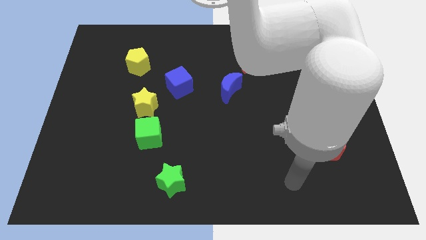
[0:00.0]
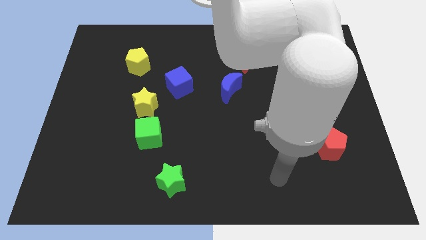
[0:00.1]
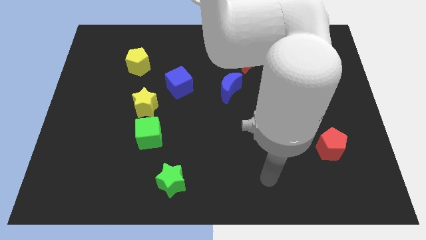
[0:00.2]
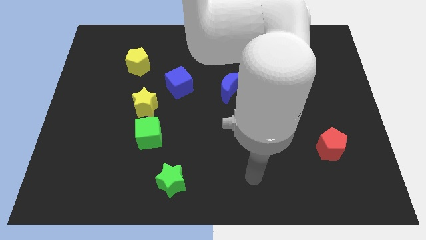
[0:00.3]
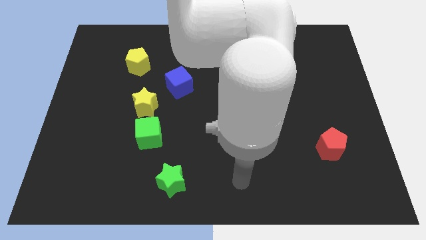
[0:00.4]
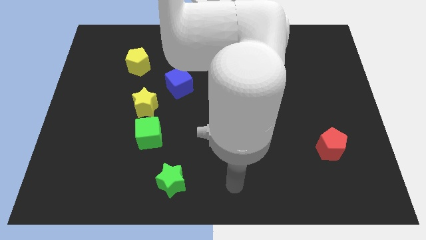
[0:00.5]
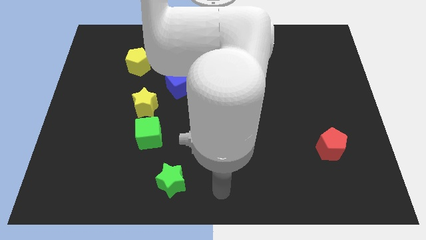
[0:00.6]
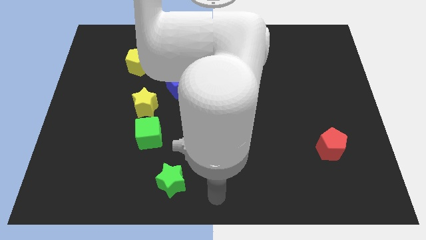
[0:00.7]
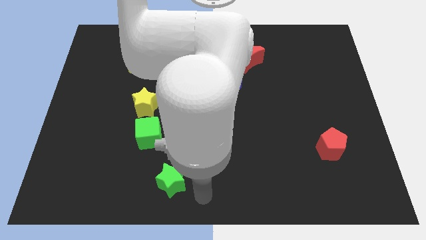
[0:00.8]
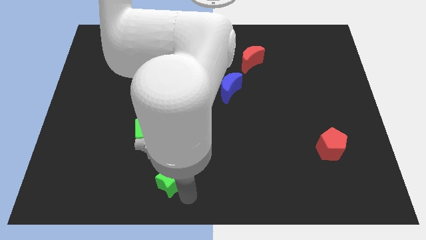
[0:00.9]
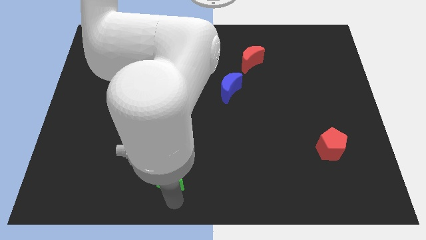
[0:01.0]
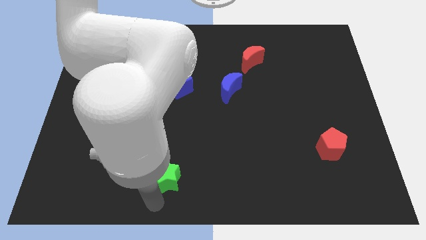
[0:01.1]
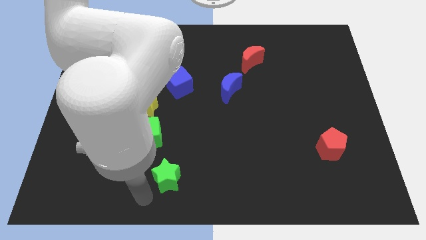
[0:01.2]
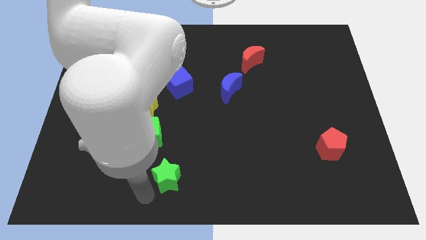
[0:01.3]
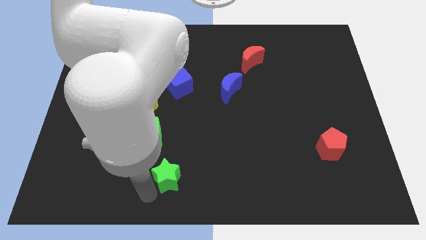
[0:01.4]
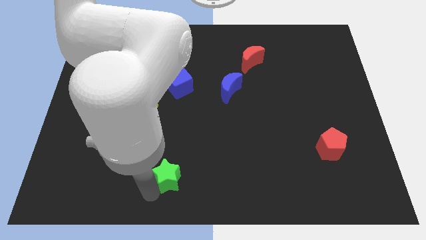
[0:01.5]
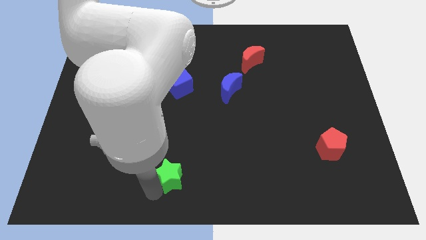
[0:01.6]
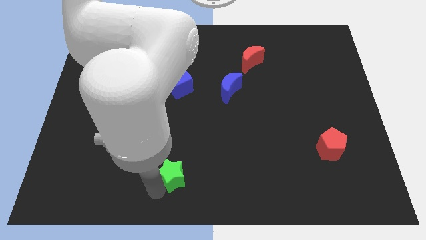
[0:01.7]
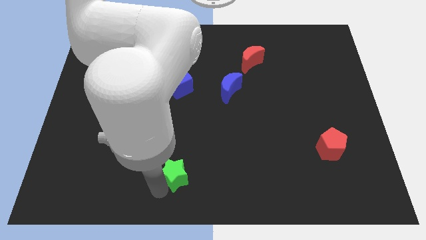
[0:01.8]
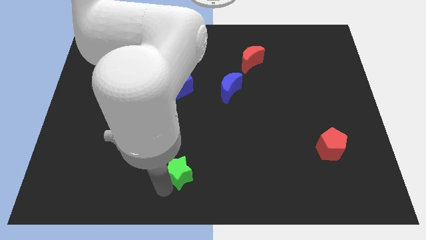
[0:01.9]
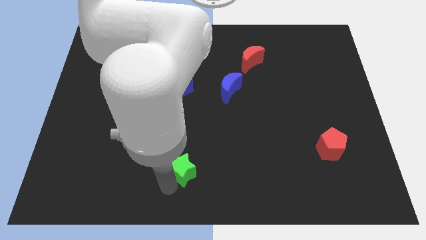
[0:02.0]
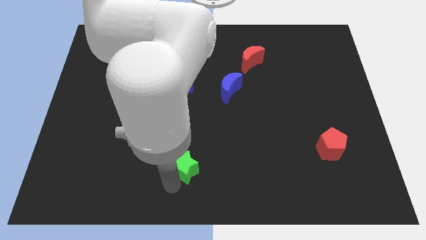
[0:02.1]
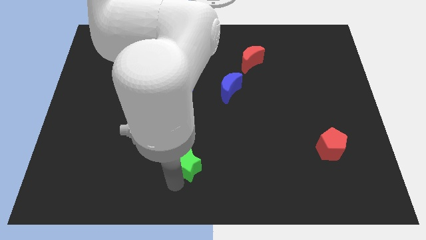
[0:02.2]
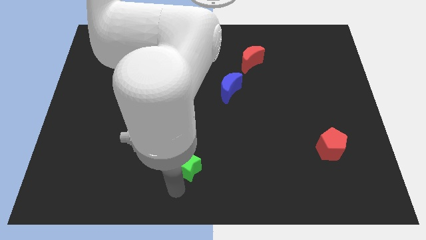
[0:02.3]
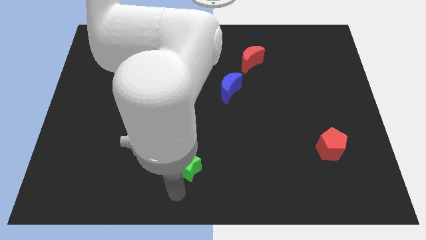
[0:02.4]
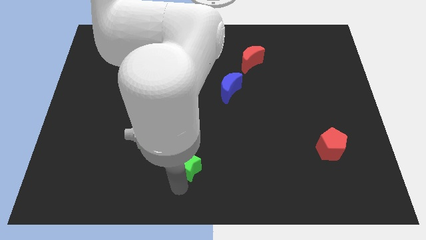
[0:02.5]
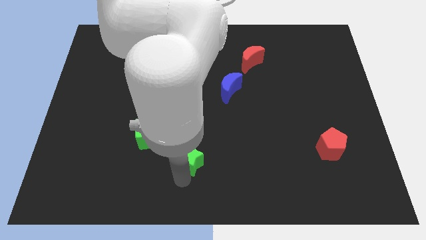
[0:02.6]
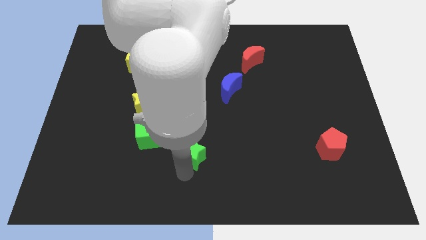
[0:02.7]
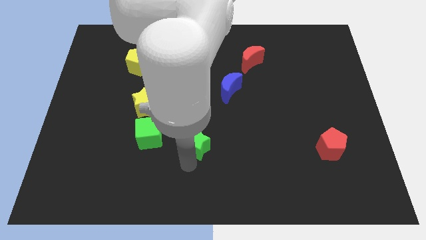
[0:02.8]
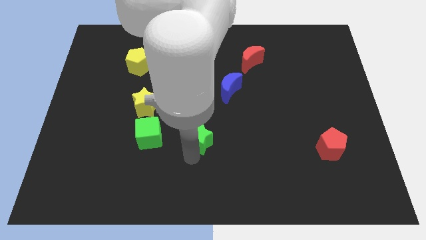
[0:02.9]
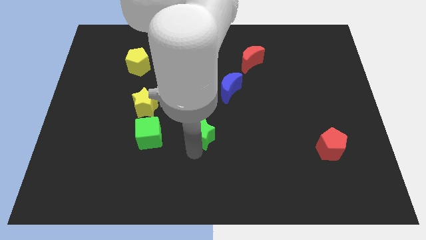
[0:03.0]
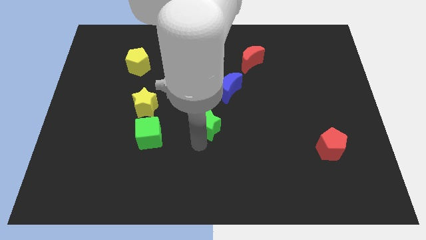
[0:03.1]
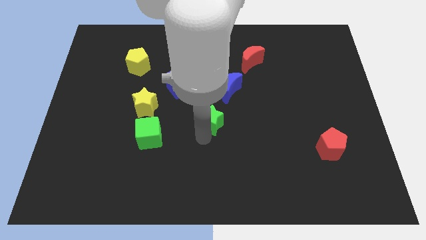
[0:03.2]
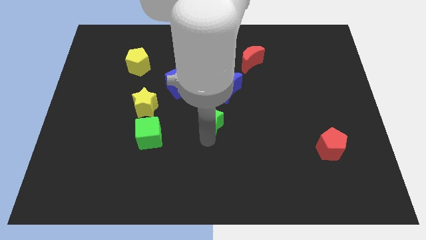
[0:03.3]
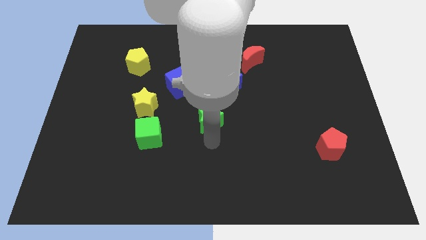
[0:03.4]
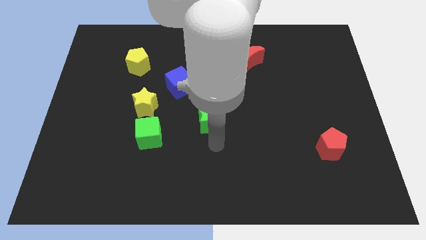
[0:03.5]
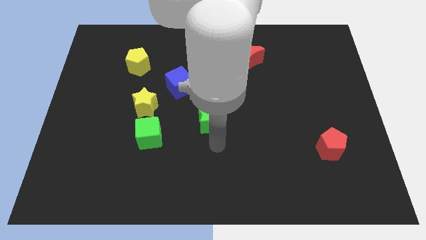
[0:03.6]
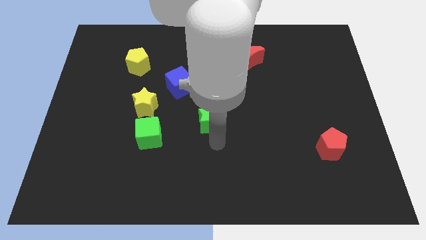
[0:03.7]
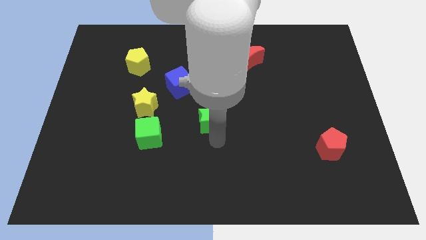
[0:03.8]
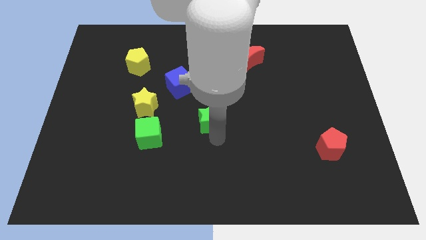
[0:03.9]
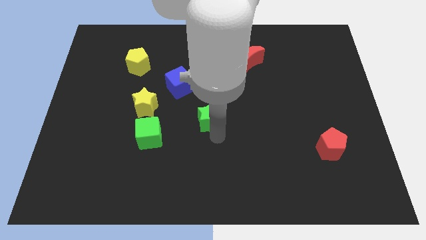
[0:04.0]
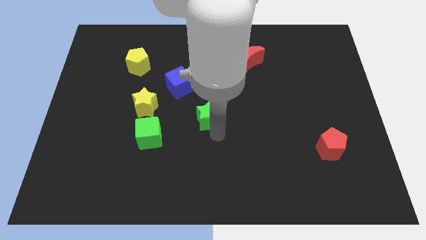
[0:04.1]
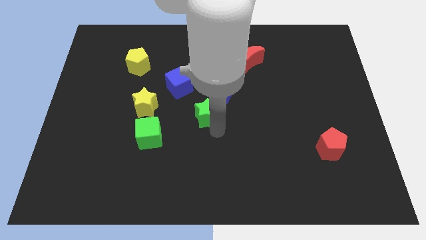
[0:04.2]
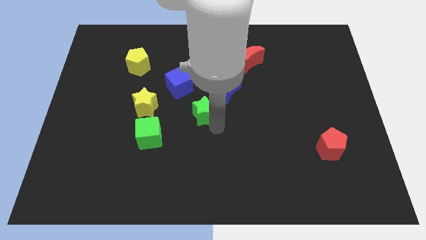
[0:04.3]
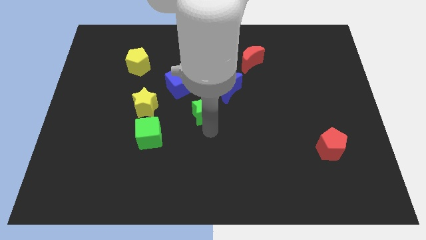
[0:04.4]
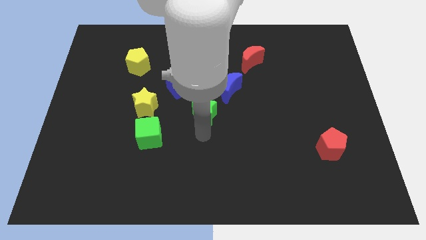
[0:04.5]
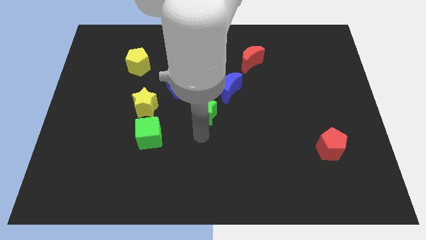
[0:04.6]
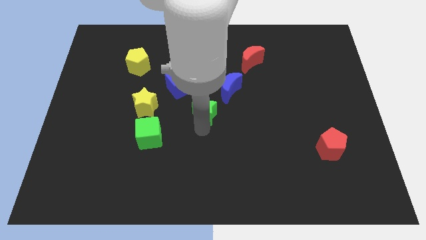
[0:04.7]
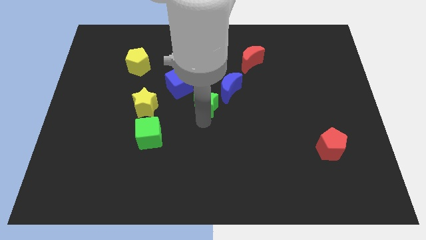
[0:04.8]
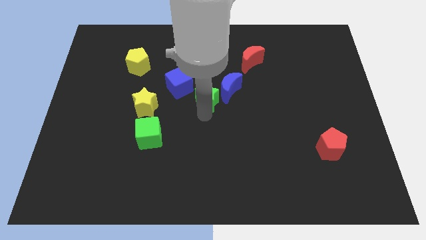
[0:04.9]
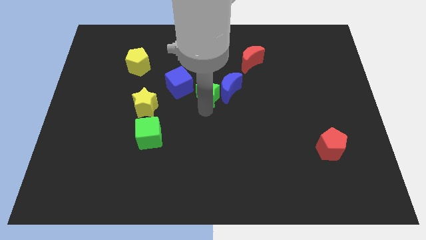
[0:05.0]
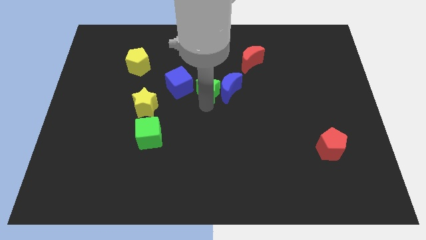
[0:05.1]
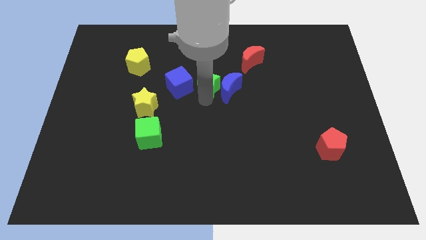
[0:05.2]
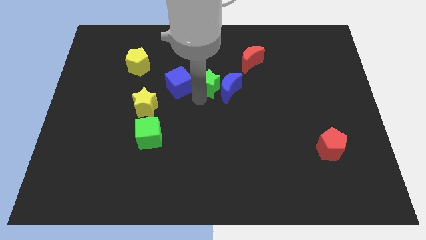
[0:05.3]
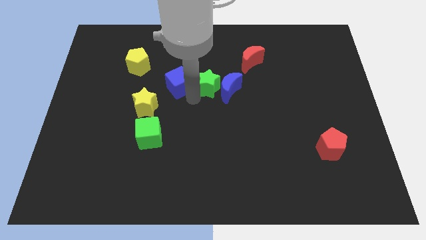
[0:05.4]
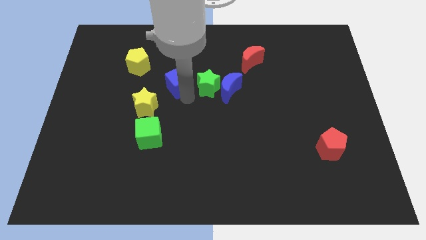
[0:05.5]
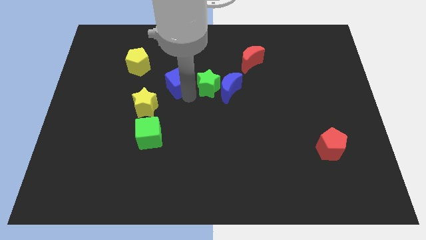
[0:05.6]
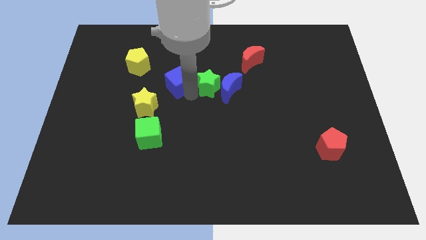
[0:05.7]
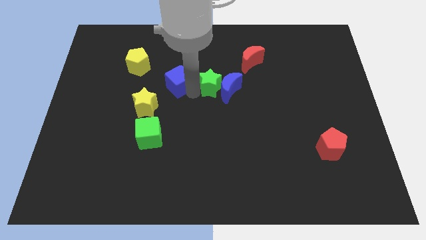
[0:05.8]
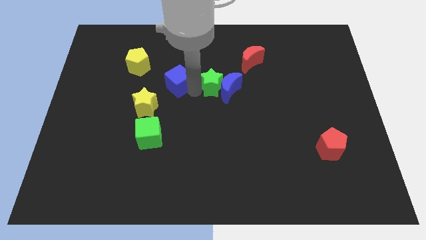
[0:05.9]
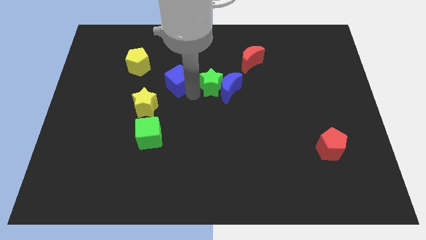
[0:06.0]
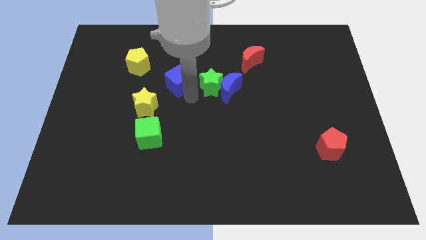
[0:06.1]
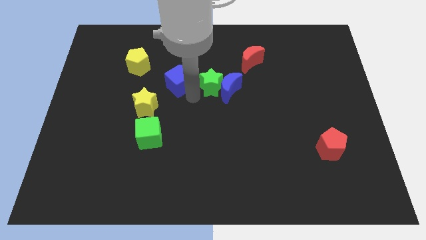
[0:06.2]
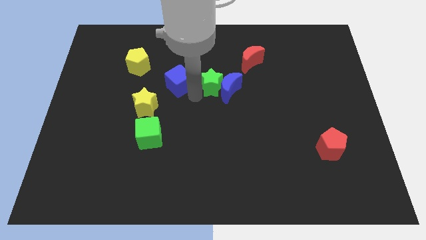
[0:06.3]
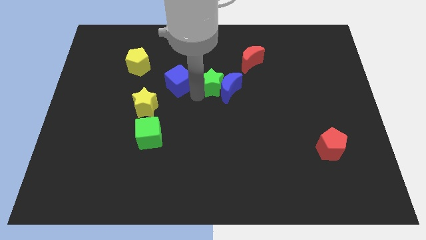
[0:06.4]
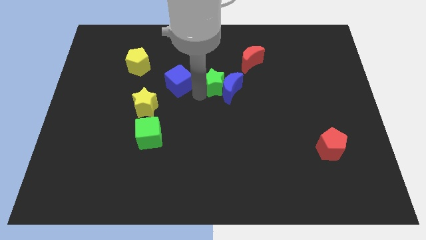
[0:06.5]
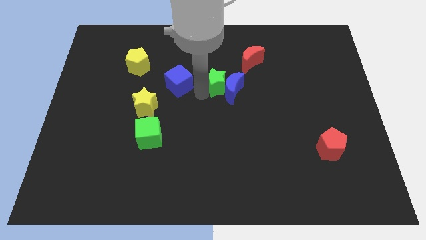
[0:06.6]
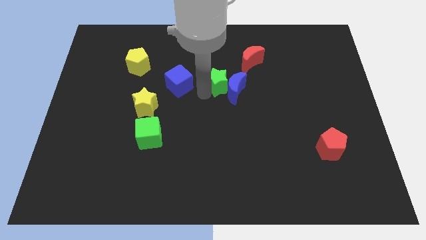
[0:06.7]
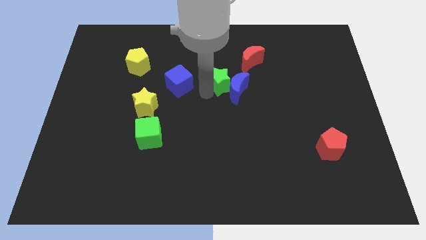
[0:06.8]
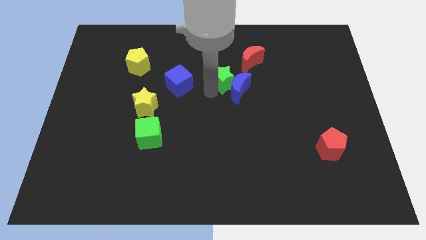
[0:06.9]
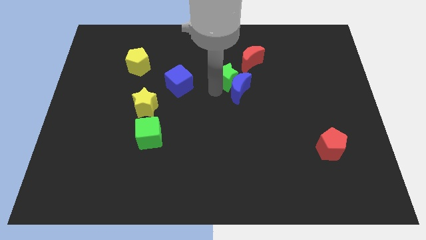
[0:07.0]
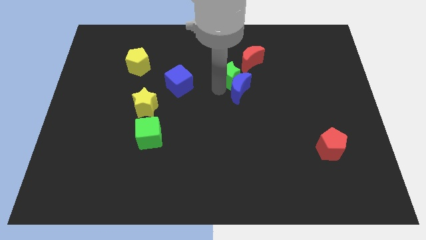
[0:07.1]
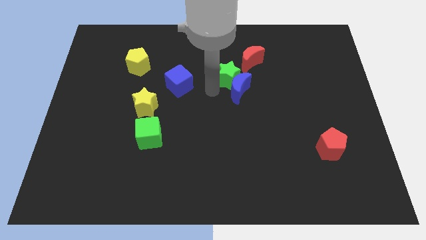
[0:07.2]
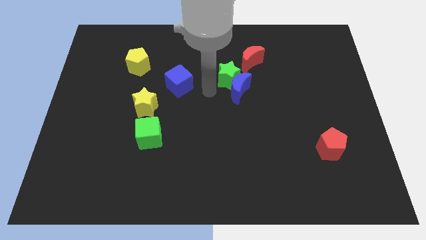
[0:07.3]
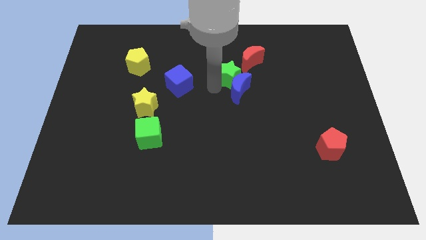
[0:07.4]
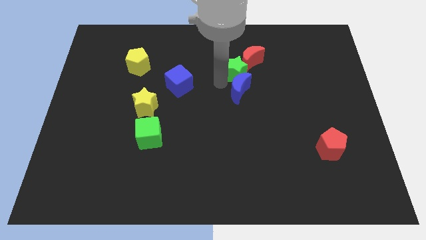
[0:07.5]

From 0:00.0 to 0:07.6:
push the green star to the red moon
